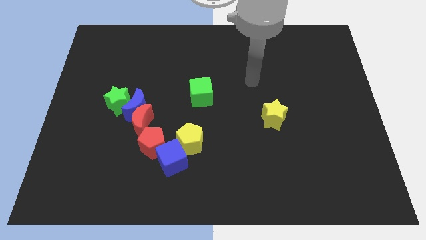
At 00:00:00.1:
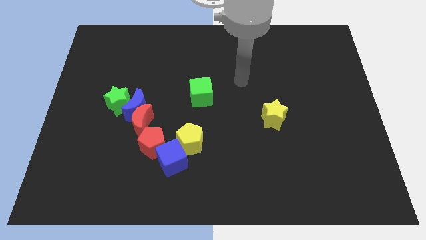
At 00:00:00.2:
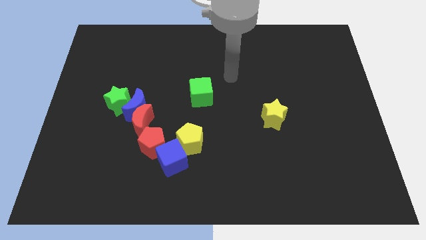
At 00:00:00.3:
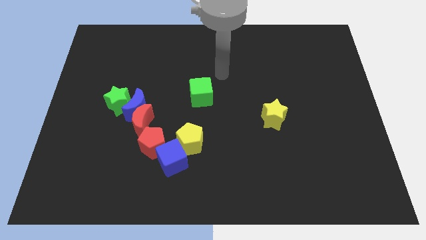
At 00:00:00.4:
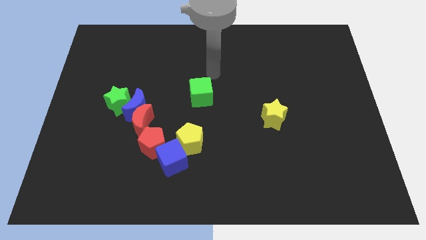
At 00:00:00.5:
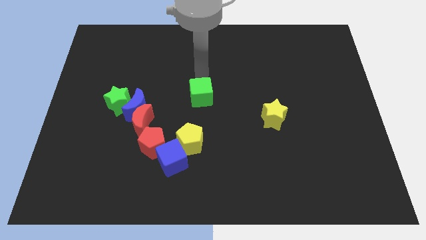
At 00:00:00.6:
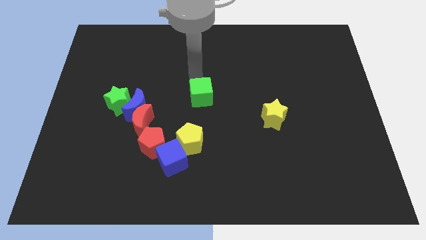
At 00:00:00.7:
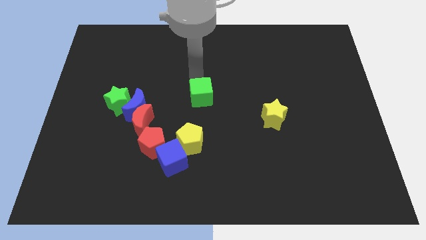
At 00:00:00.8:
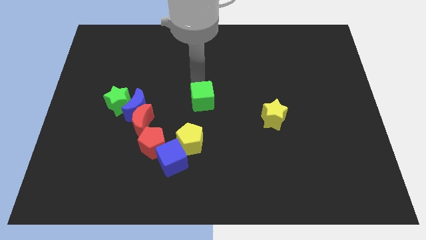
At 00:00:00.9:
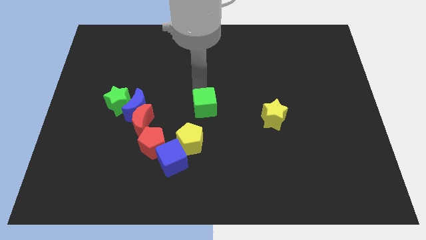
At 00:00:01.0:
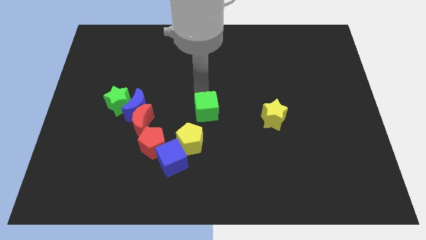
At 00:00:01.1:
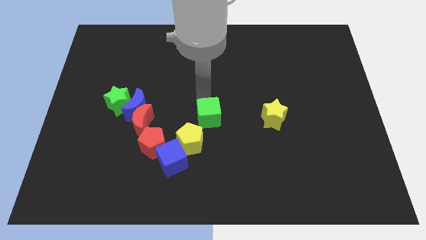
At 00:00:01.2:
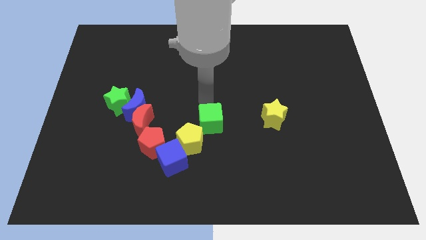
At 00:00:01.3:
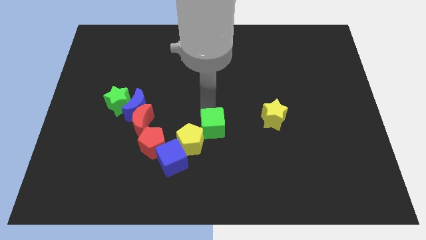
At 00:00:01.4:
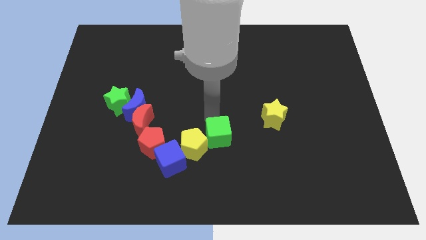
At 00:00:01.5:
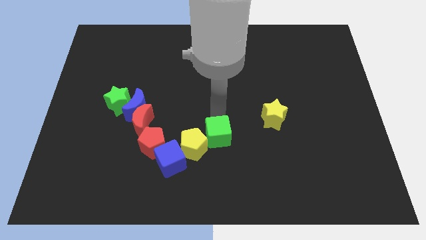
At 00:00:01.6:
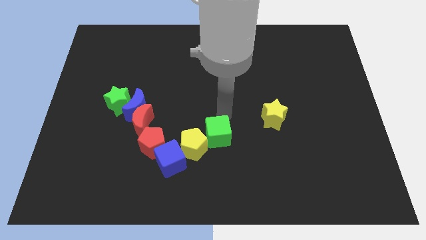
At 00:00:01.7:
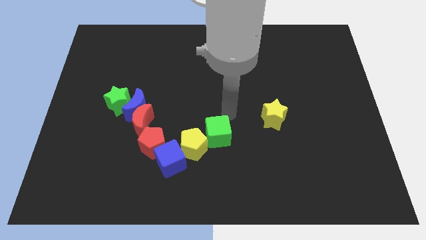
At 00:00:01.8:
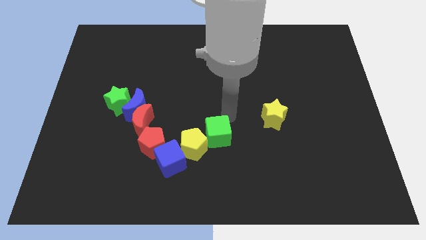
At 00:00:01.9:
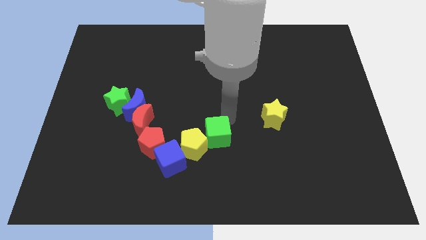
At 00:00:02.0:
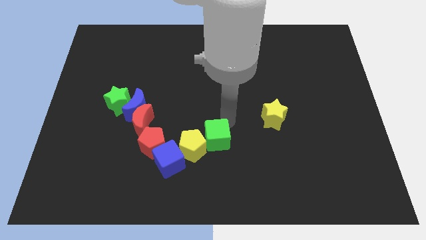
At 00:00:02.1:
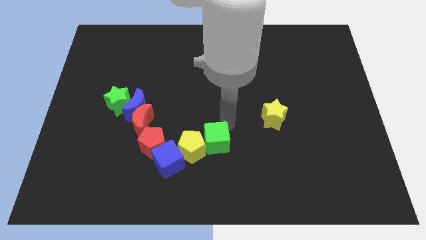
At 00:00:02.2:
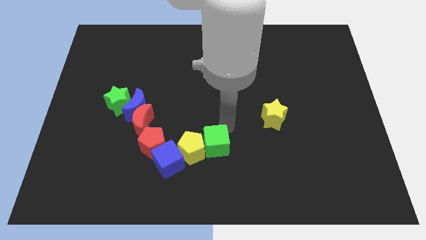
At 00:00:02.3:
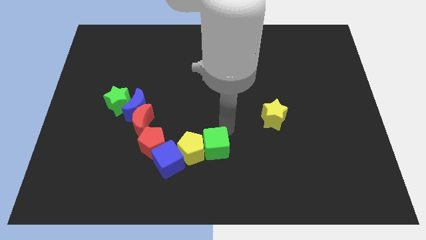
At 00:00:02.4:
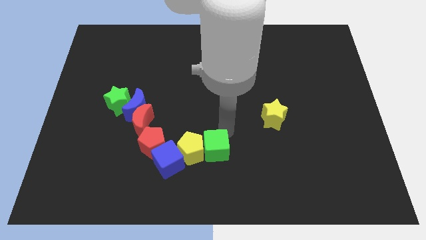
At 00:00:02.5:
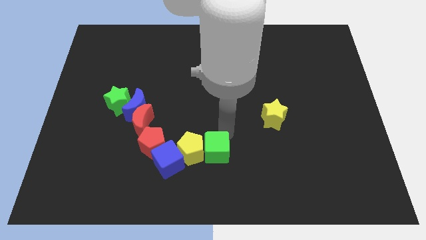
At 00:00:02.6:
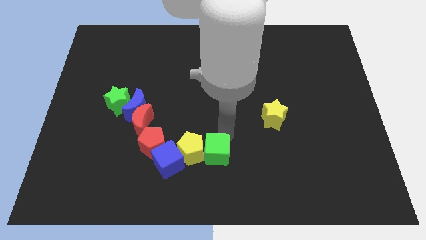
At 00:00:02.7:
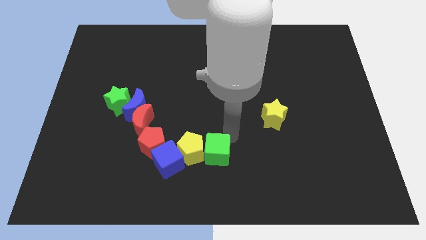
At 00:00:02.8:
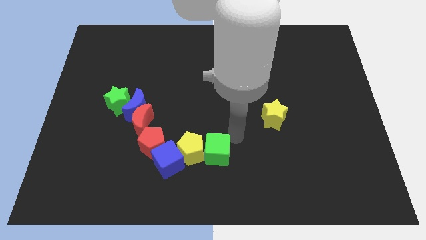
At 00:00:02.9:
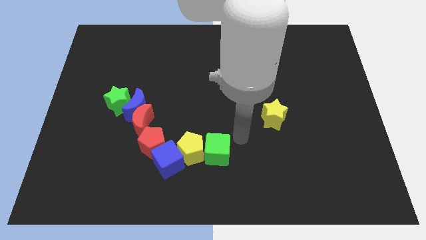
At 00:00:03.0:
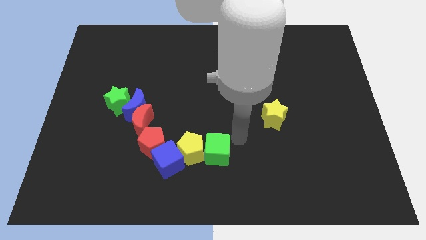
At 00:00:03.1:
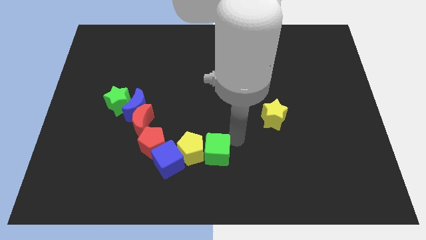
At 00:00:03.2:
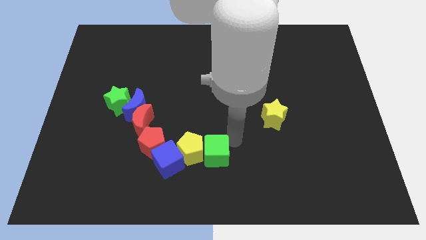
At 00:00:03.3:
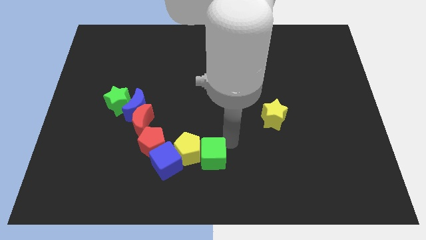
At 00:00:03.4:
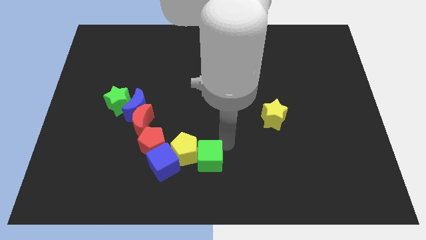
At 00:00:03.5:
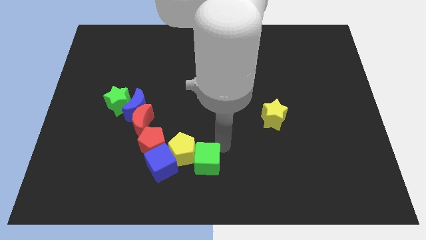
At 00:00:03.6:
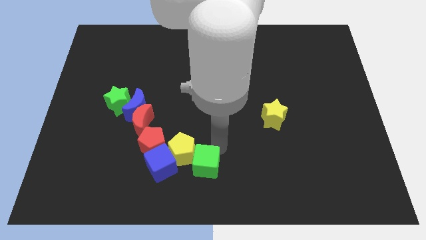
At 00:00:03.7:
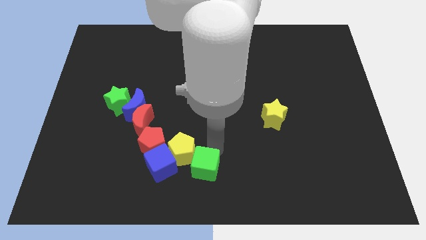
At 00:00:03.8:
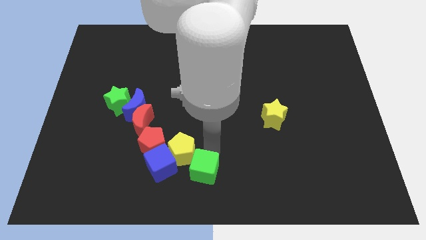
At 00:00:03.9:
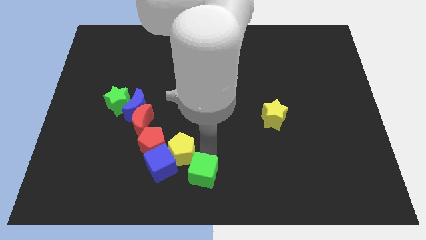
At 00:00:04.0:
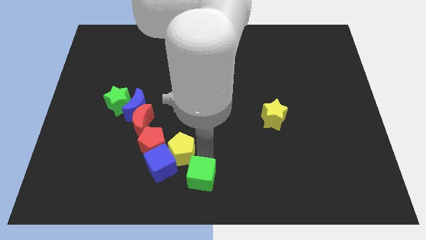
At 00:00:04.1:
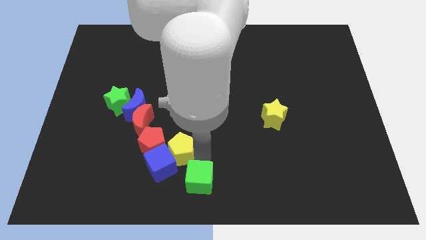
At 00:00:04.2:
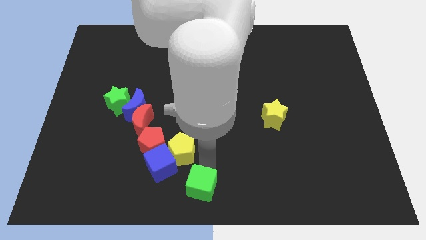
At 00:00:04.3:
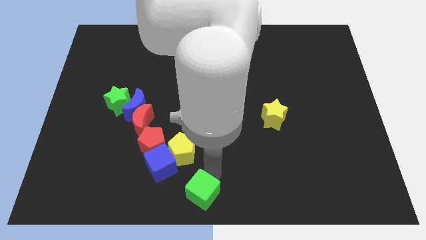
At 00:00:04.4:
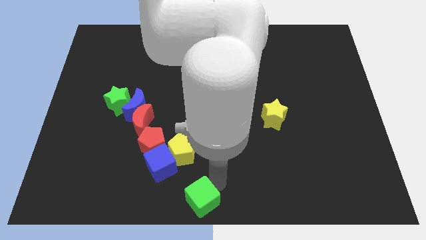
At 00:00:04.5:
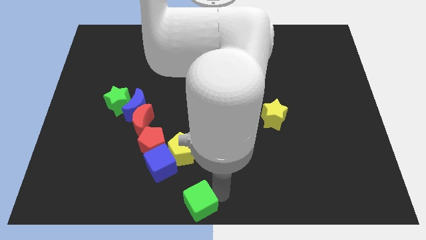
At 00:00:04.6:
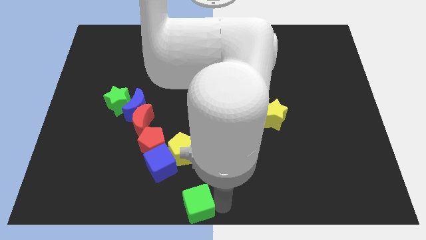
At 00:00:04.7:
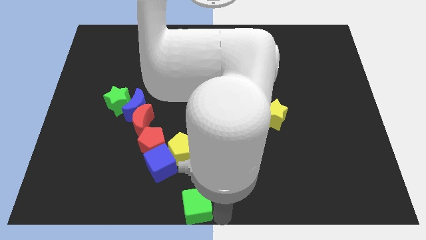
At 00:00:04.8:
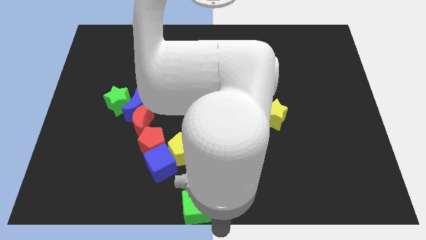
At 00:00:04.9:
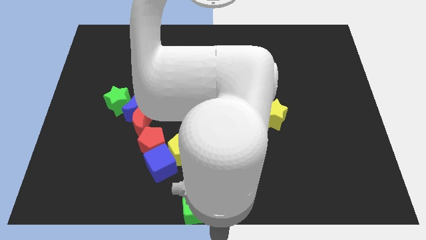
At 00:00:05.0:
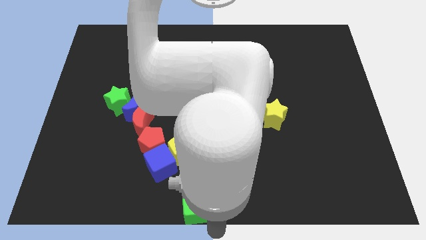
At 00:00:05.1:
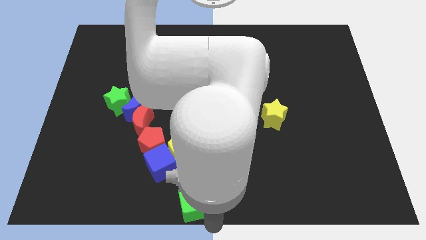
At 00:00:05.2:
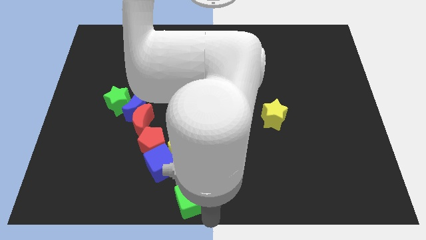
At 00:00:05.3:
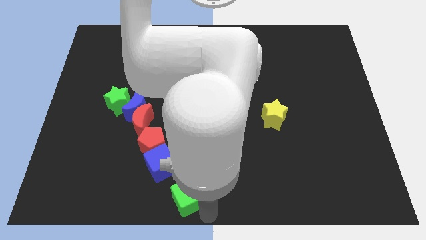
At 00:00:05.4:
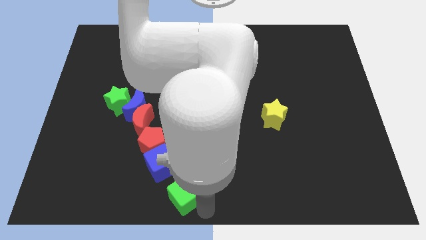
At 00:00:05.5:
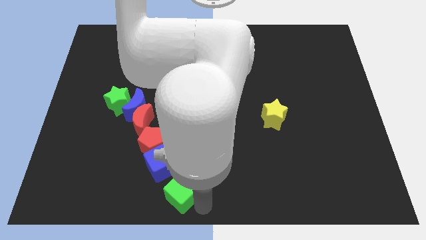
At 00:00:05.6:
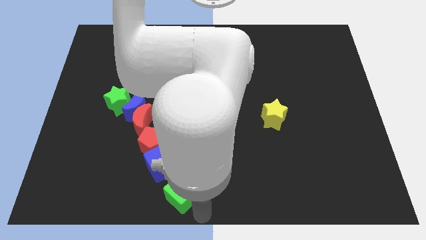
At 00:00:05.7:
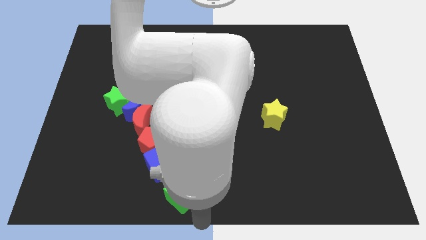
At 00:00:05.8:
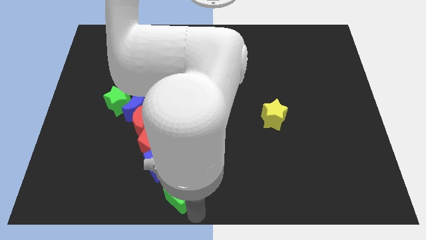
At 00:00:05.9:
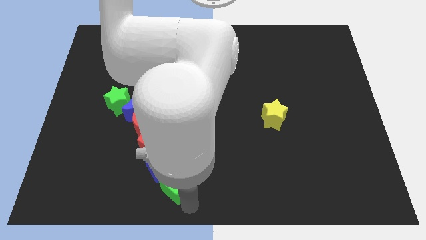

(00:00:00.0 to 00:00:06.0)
slide the green cube next to the blue cube

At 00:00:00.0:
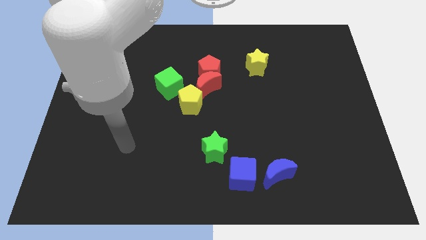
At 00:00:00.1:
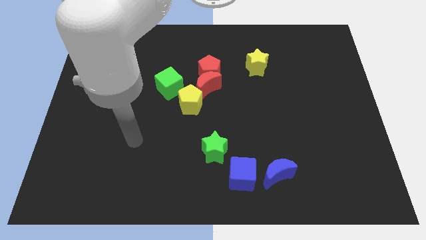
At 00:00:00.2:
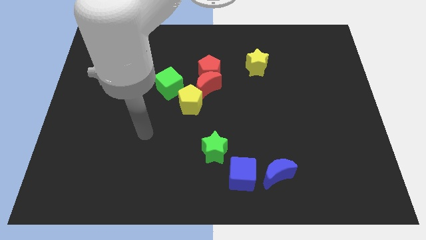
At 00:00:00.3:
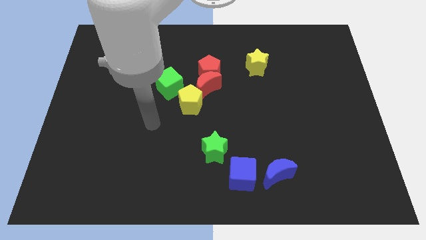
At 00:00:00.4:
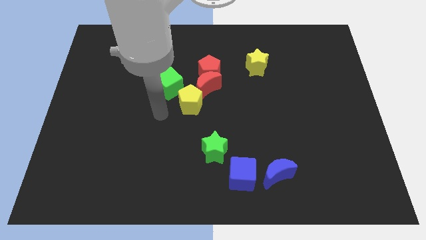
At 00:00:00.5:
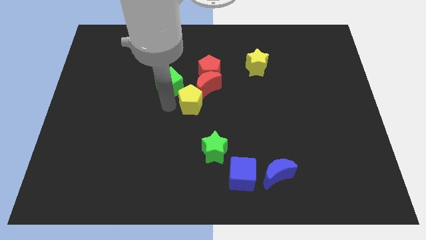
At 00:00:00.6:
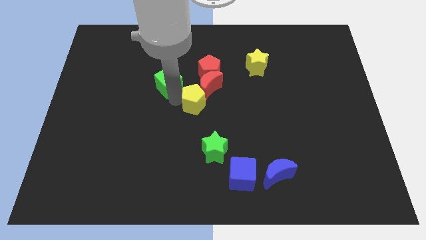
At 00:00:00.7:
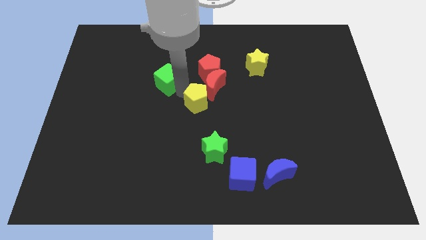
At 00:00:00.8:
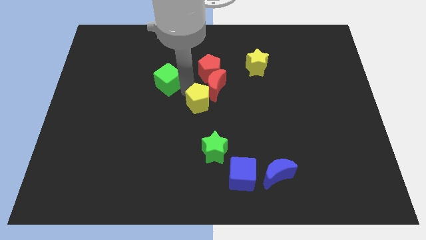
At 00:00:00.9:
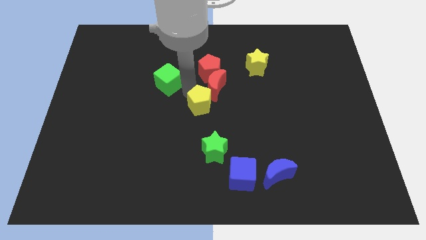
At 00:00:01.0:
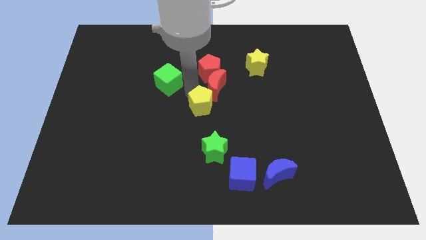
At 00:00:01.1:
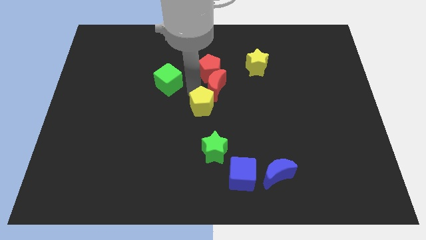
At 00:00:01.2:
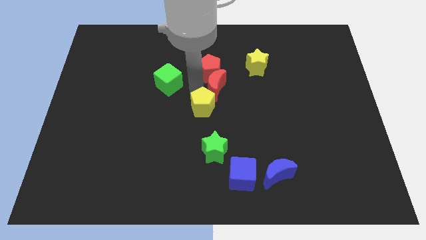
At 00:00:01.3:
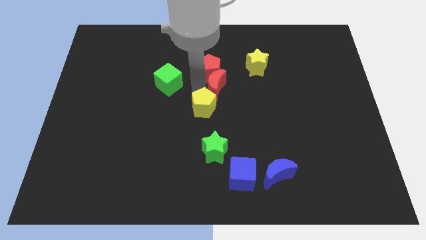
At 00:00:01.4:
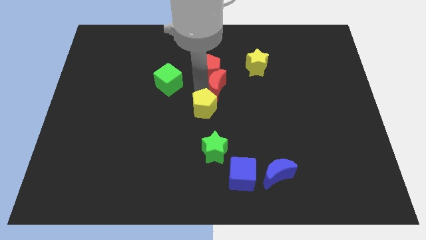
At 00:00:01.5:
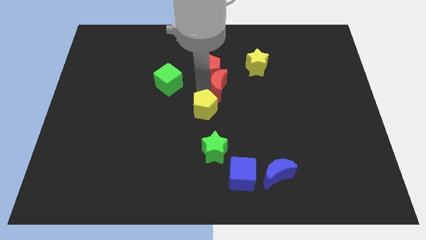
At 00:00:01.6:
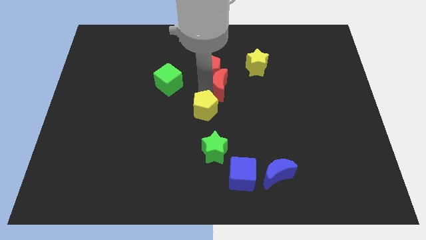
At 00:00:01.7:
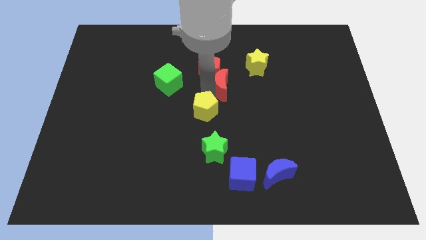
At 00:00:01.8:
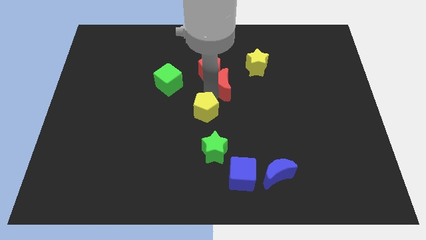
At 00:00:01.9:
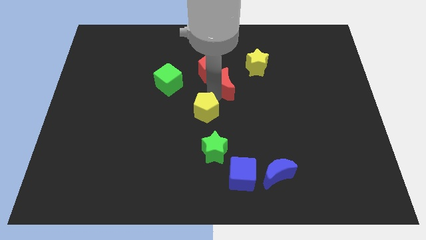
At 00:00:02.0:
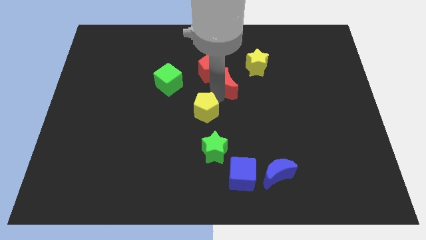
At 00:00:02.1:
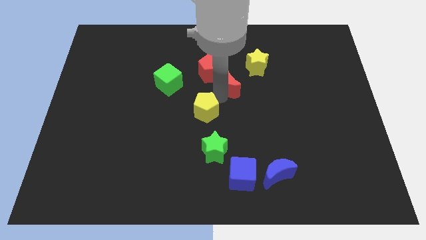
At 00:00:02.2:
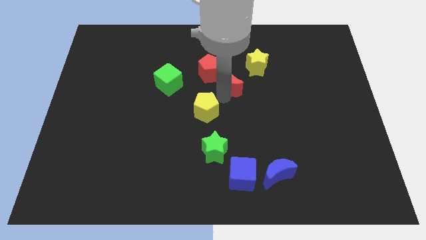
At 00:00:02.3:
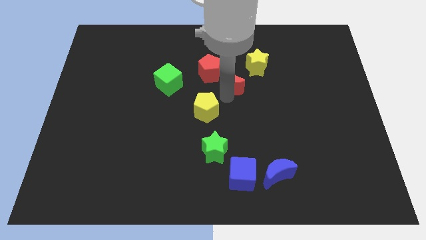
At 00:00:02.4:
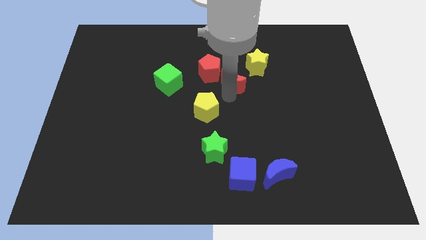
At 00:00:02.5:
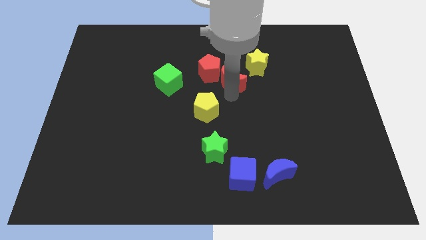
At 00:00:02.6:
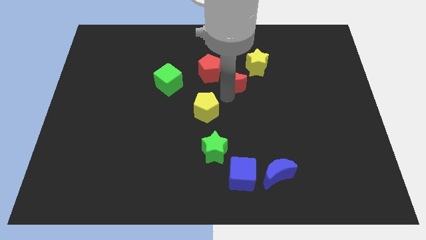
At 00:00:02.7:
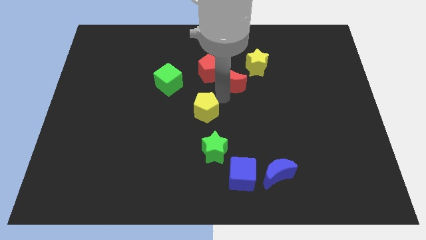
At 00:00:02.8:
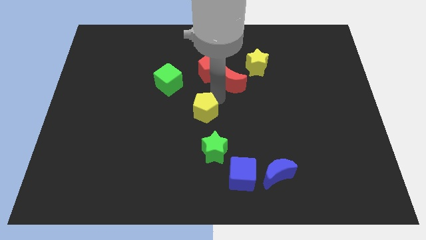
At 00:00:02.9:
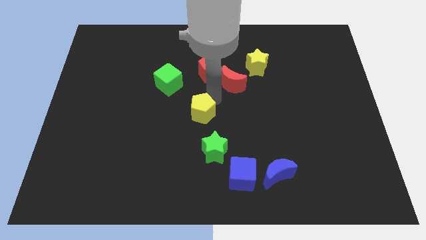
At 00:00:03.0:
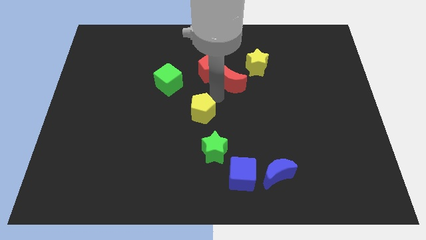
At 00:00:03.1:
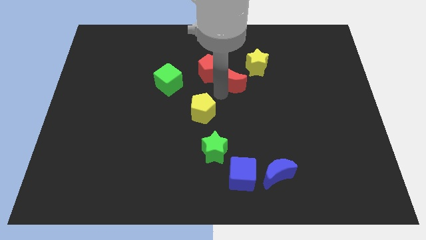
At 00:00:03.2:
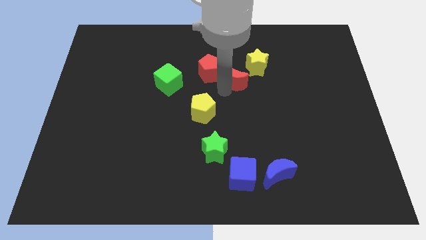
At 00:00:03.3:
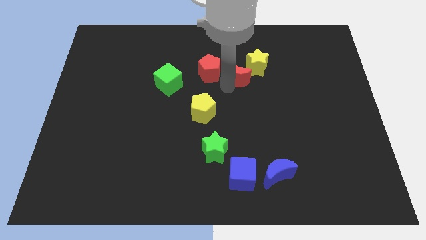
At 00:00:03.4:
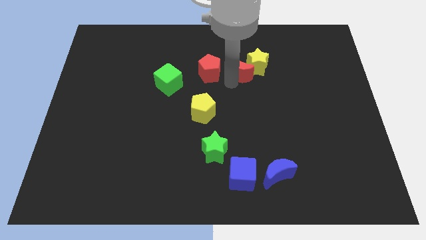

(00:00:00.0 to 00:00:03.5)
move the red moon to the yellow star
